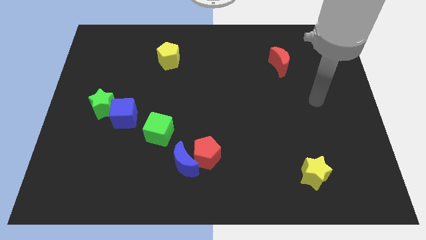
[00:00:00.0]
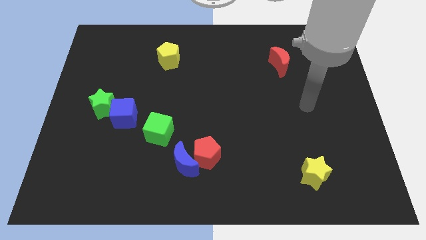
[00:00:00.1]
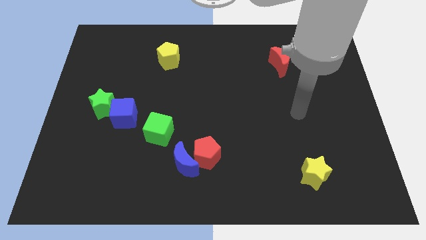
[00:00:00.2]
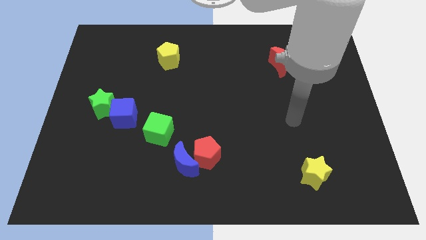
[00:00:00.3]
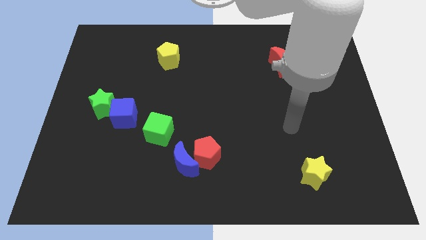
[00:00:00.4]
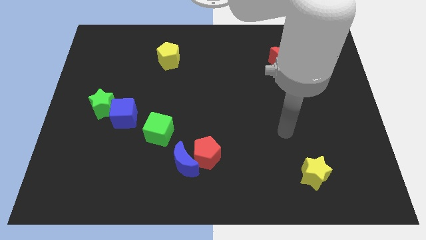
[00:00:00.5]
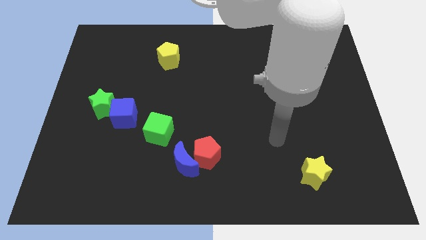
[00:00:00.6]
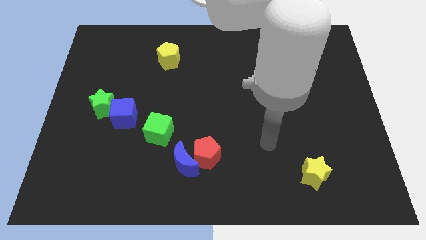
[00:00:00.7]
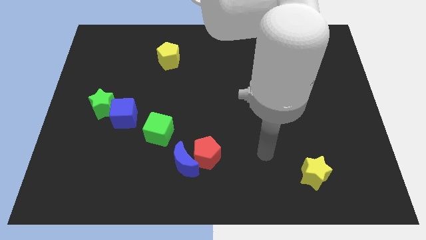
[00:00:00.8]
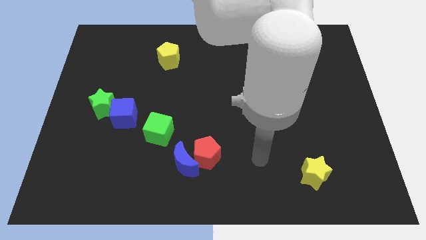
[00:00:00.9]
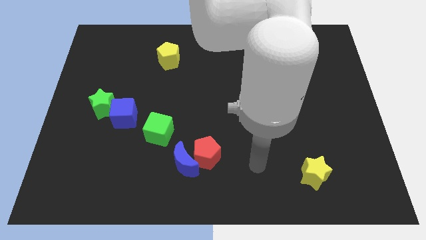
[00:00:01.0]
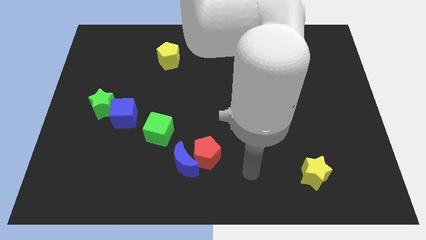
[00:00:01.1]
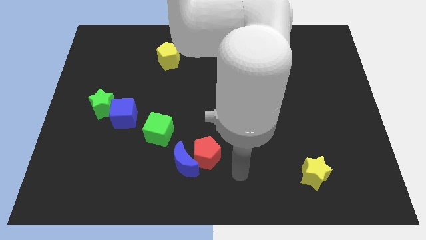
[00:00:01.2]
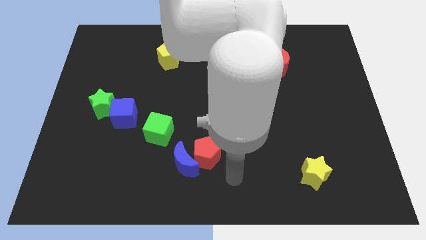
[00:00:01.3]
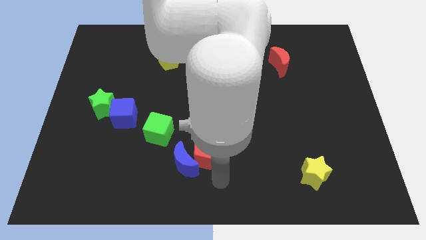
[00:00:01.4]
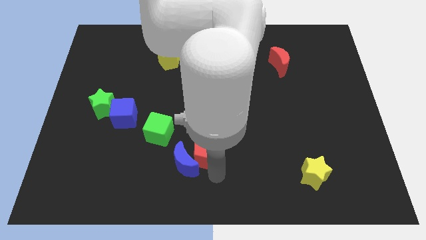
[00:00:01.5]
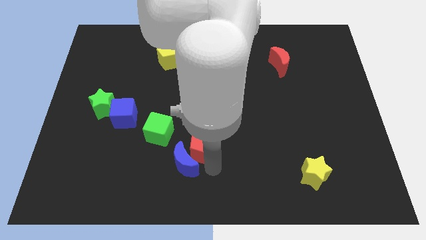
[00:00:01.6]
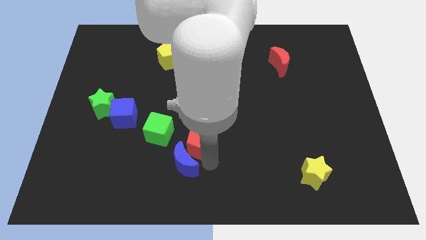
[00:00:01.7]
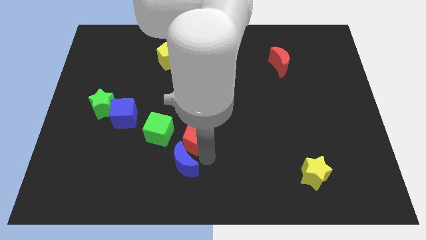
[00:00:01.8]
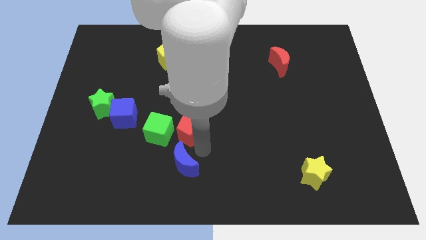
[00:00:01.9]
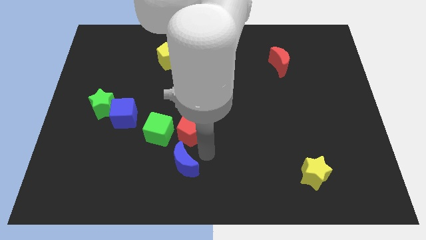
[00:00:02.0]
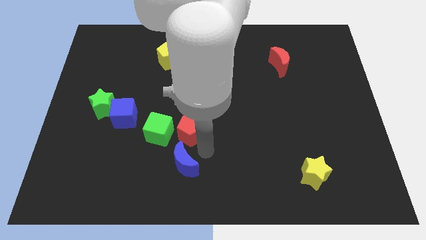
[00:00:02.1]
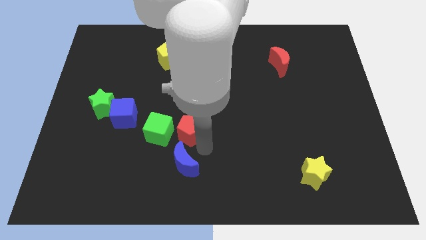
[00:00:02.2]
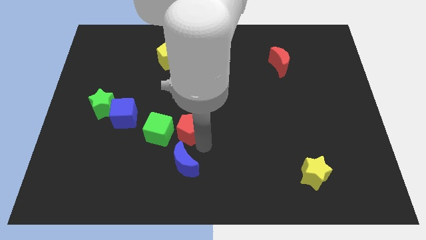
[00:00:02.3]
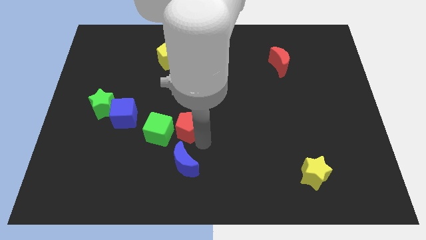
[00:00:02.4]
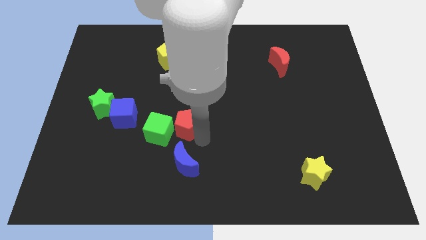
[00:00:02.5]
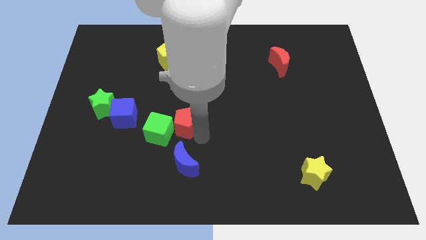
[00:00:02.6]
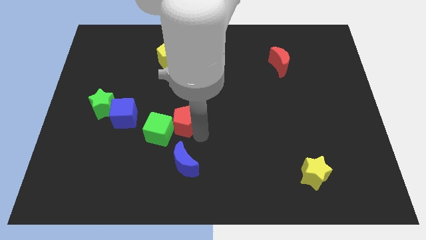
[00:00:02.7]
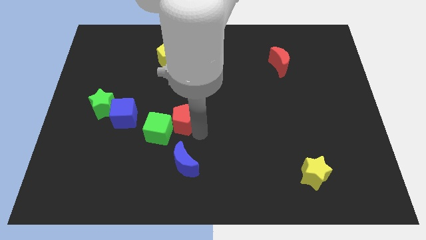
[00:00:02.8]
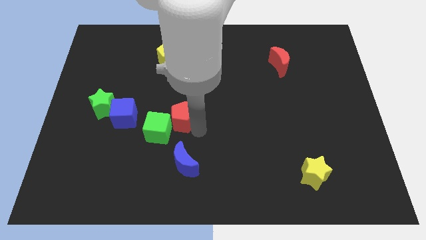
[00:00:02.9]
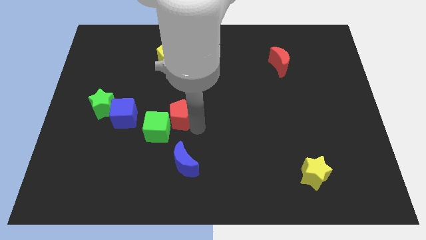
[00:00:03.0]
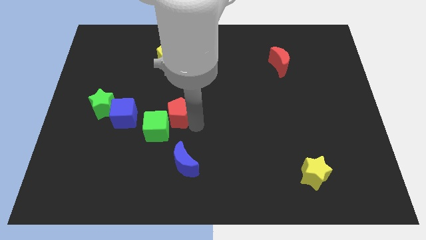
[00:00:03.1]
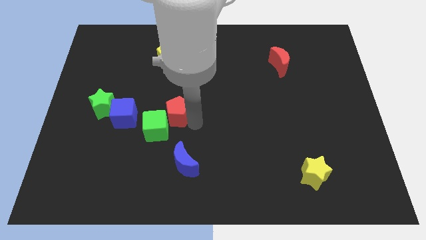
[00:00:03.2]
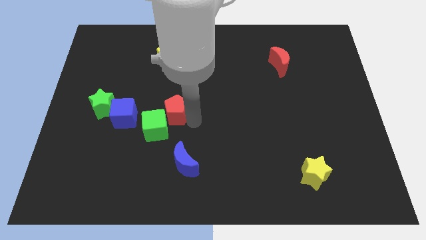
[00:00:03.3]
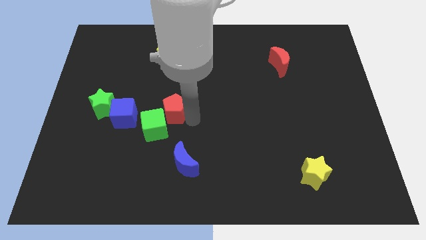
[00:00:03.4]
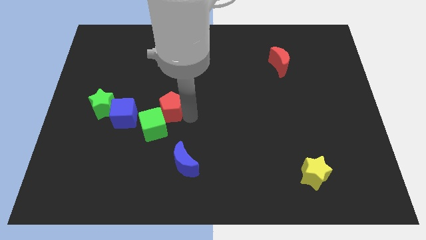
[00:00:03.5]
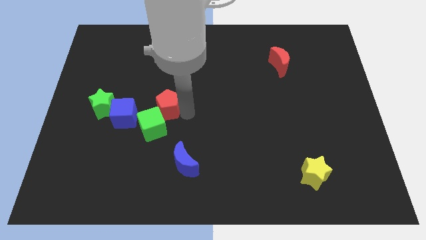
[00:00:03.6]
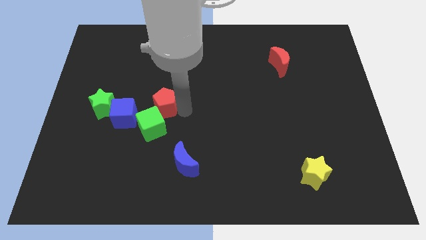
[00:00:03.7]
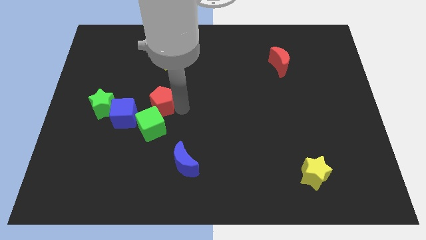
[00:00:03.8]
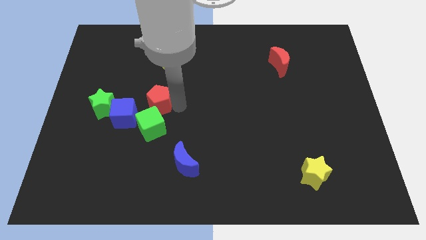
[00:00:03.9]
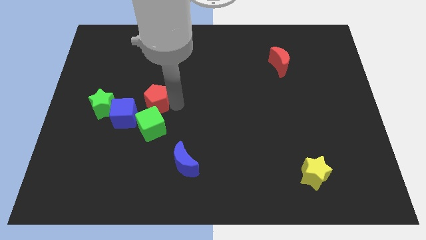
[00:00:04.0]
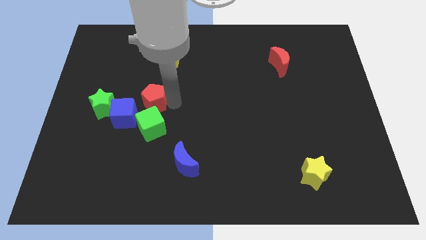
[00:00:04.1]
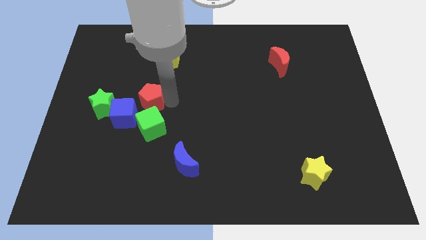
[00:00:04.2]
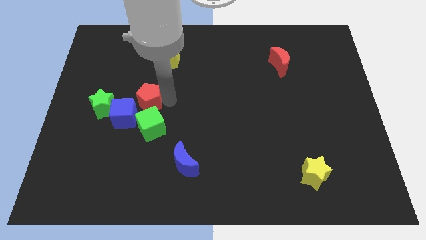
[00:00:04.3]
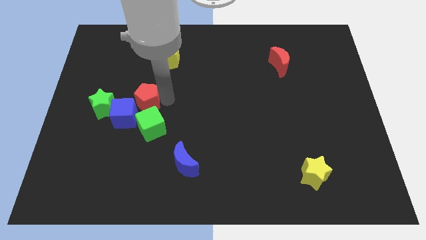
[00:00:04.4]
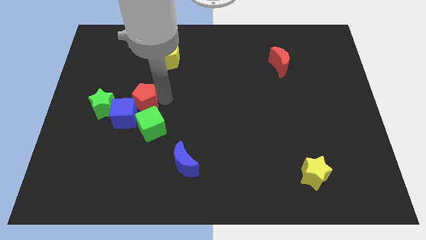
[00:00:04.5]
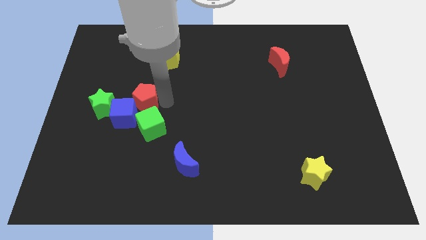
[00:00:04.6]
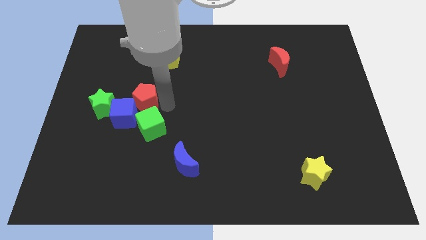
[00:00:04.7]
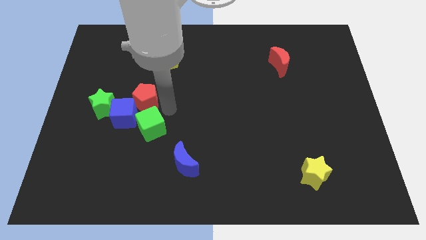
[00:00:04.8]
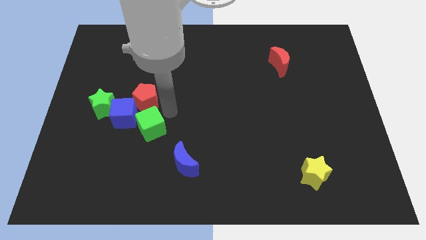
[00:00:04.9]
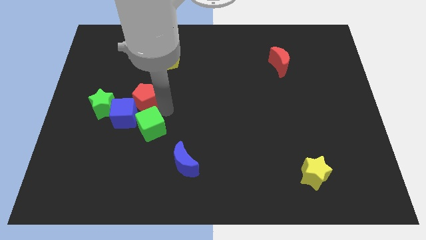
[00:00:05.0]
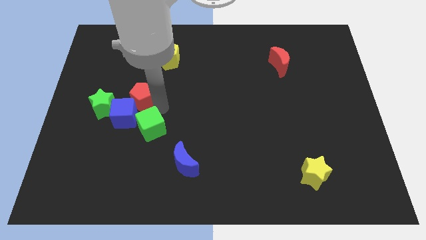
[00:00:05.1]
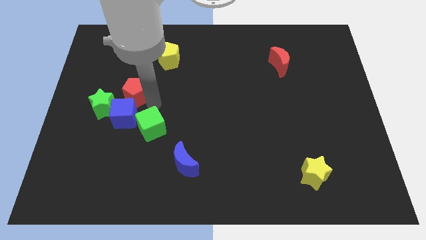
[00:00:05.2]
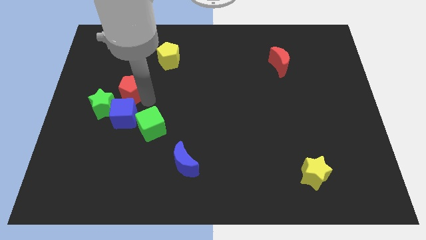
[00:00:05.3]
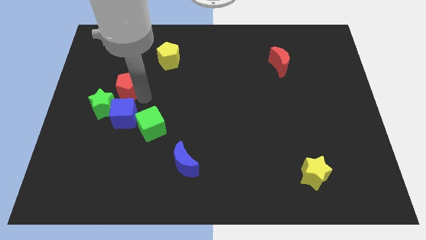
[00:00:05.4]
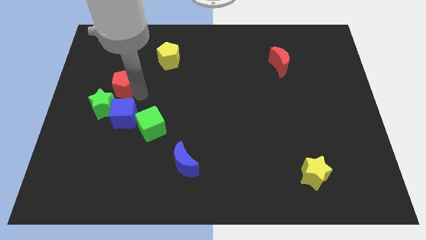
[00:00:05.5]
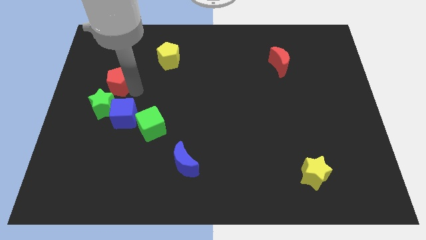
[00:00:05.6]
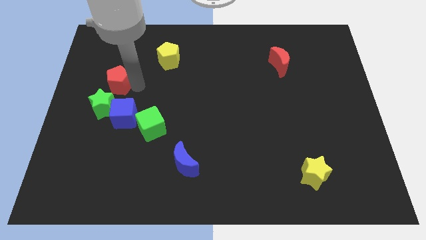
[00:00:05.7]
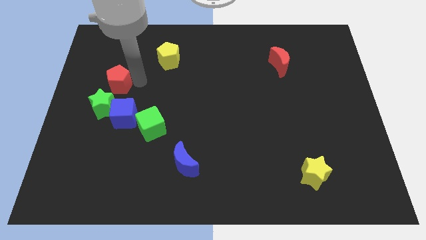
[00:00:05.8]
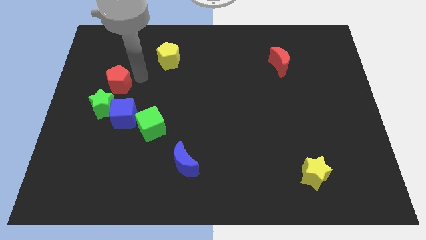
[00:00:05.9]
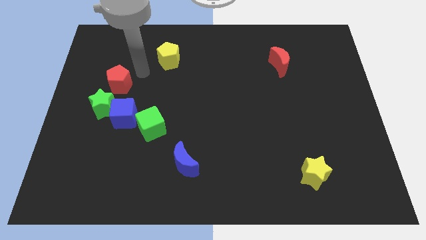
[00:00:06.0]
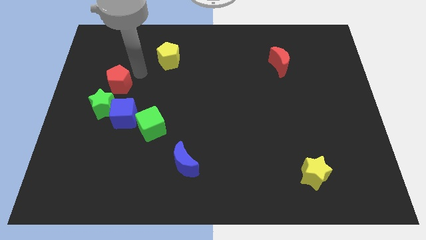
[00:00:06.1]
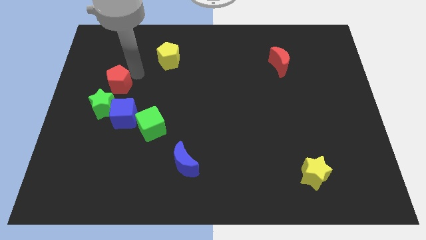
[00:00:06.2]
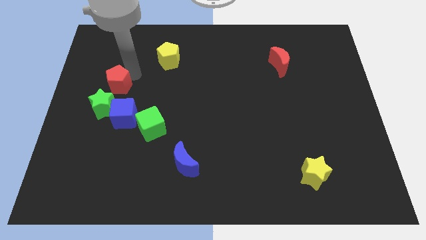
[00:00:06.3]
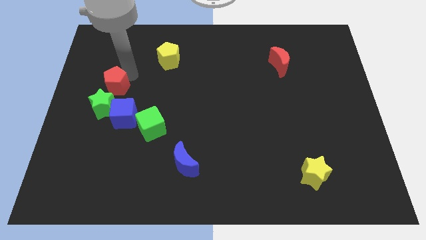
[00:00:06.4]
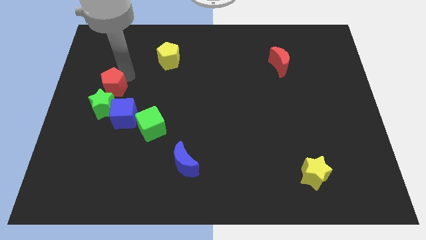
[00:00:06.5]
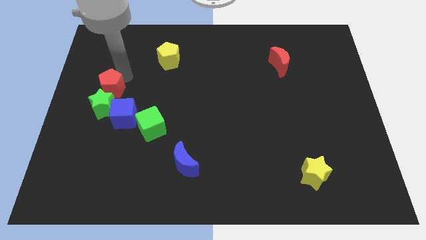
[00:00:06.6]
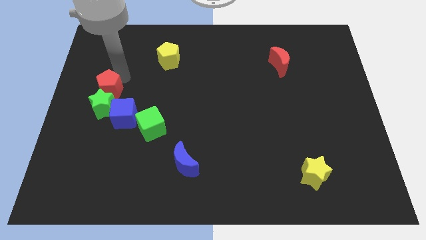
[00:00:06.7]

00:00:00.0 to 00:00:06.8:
put the red pentagon to the center left
